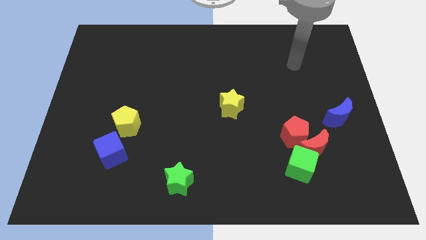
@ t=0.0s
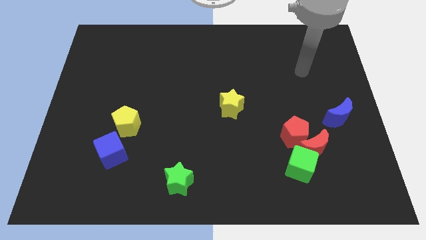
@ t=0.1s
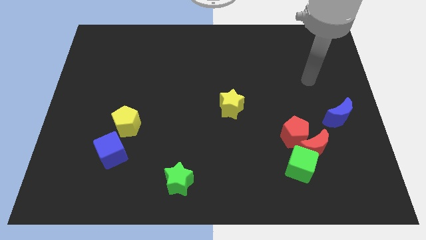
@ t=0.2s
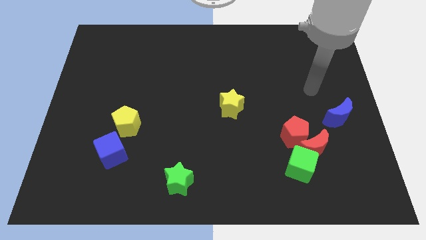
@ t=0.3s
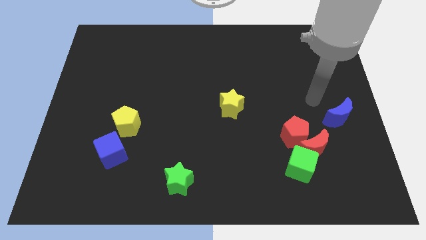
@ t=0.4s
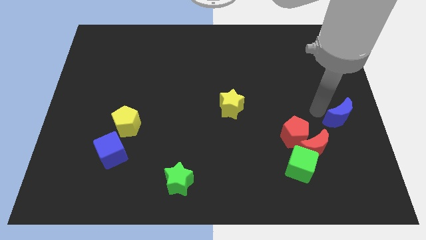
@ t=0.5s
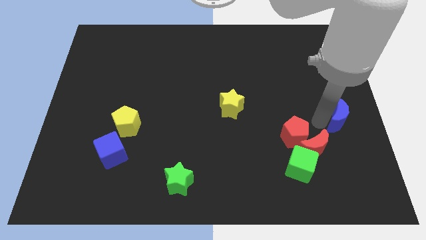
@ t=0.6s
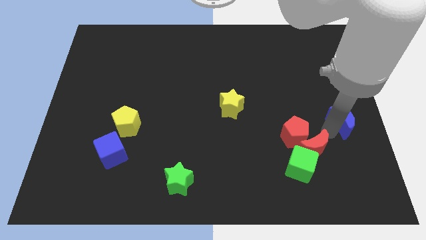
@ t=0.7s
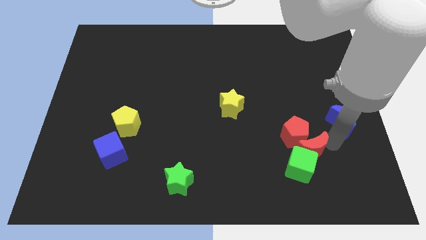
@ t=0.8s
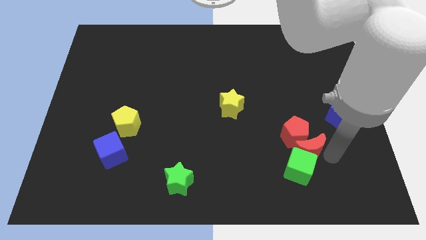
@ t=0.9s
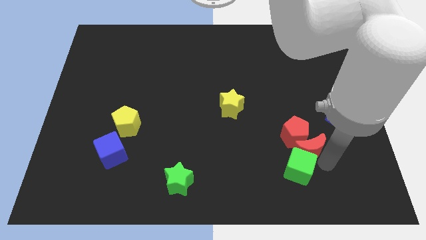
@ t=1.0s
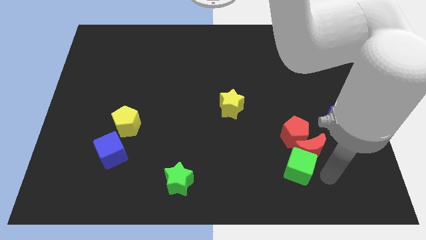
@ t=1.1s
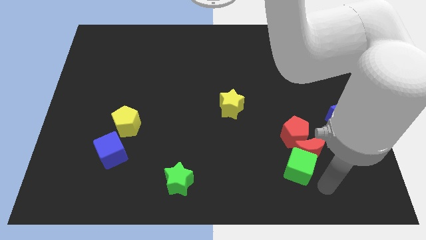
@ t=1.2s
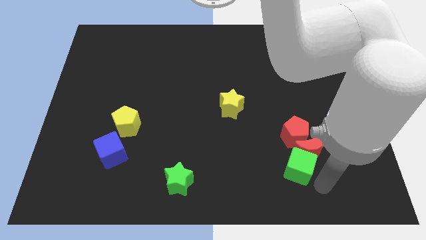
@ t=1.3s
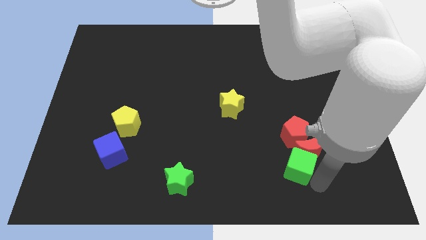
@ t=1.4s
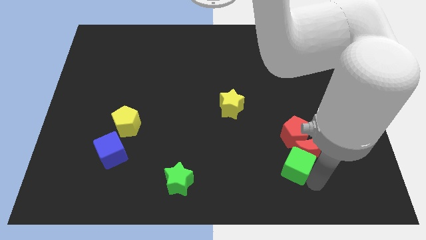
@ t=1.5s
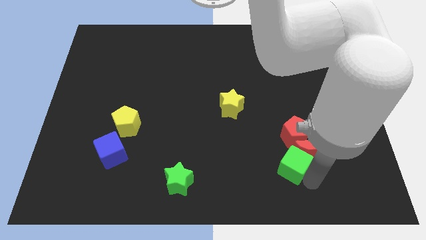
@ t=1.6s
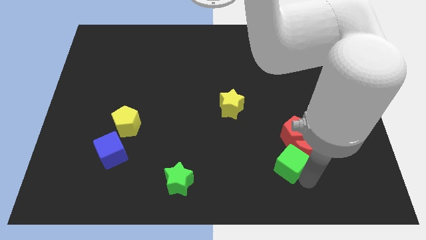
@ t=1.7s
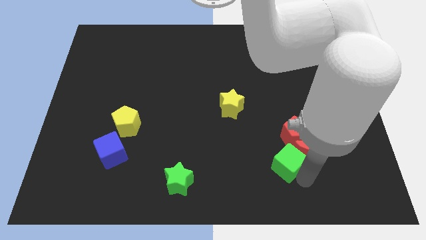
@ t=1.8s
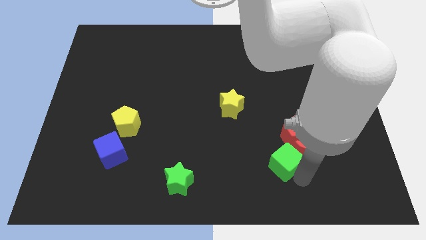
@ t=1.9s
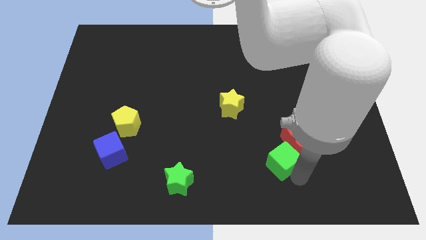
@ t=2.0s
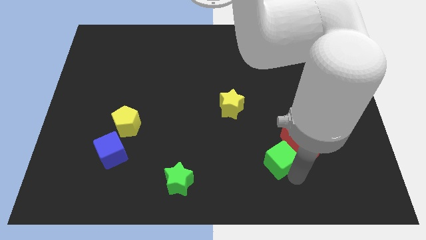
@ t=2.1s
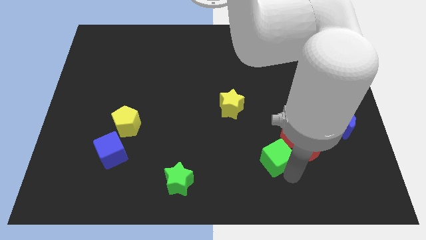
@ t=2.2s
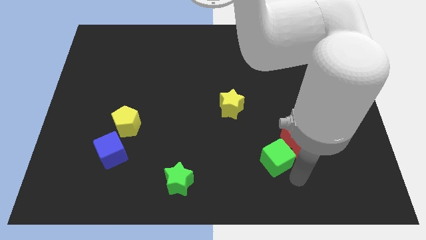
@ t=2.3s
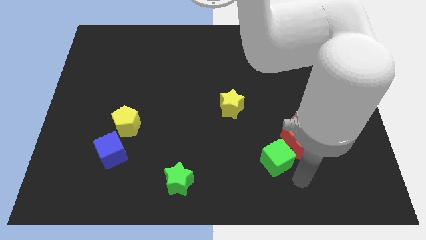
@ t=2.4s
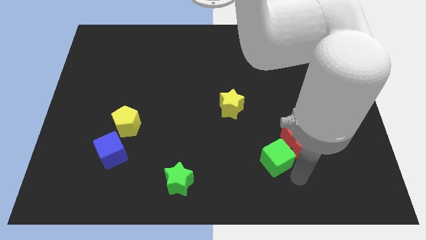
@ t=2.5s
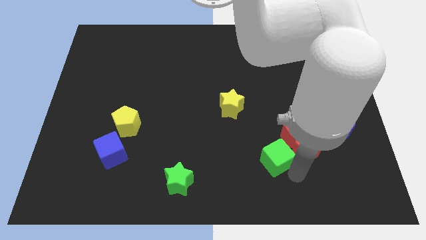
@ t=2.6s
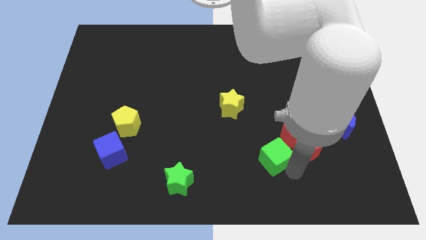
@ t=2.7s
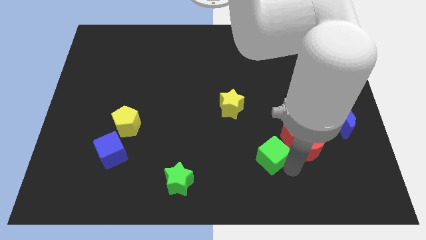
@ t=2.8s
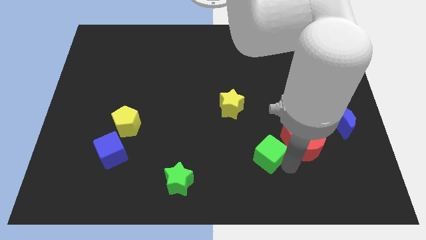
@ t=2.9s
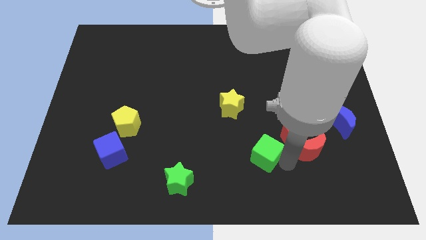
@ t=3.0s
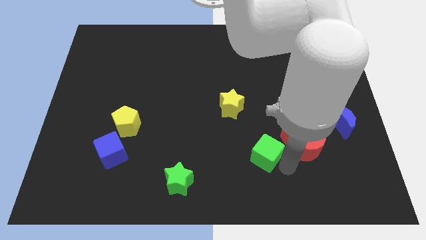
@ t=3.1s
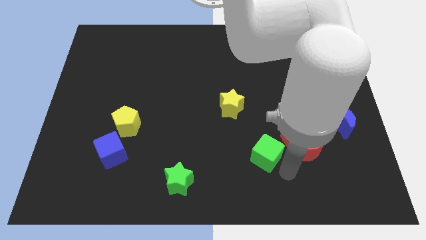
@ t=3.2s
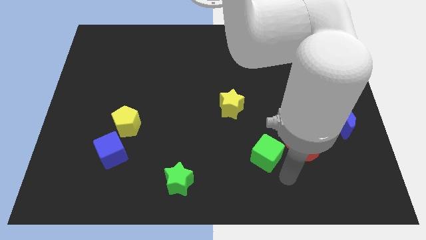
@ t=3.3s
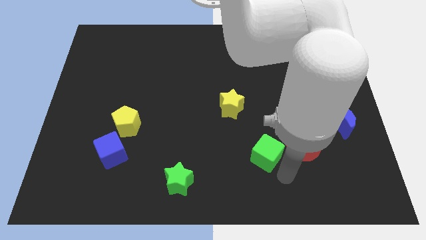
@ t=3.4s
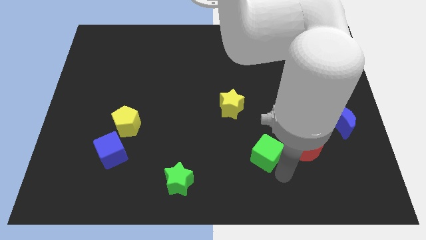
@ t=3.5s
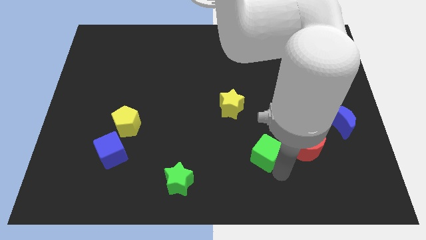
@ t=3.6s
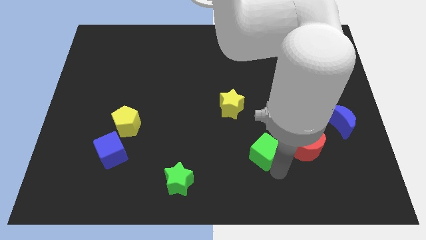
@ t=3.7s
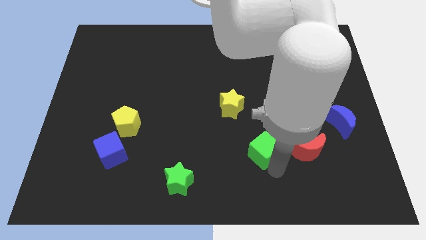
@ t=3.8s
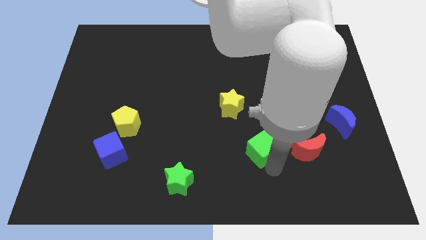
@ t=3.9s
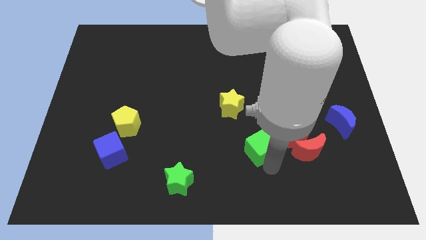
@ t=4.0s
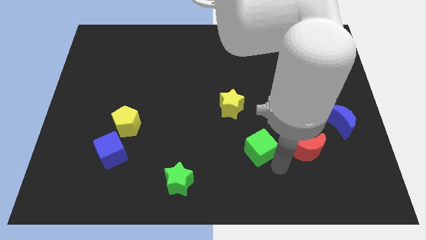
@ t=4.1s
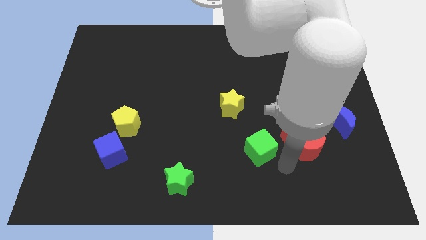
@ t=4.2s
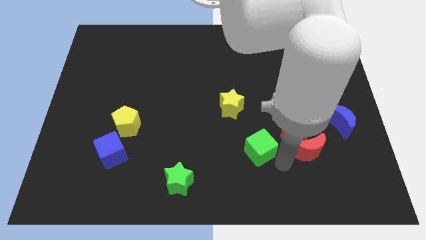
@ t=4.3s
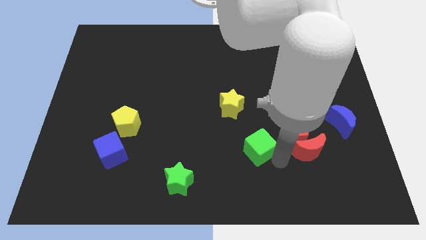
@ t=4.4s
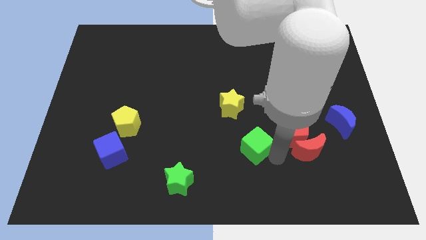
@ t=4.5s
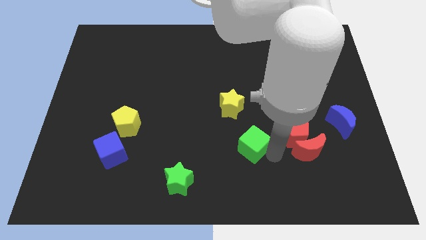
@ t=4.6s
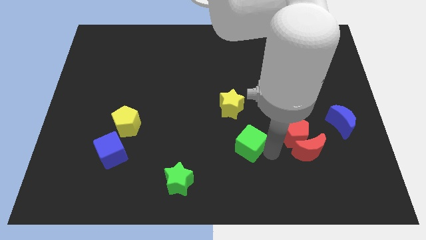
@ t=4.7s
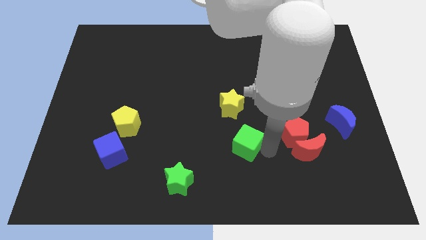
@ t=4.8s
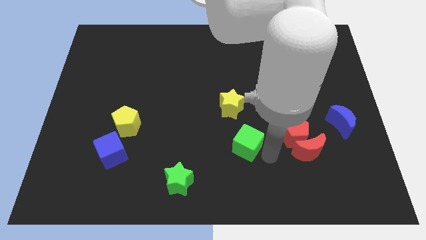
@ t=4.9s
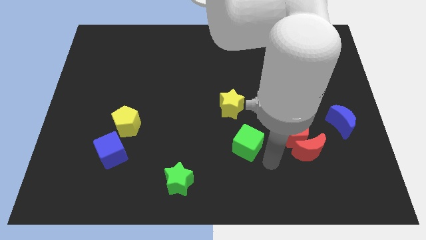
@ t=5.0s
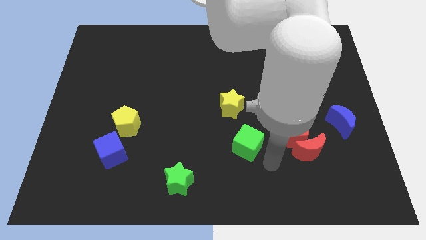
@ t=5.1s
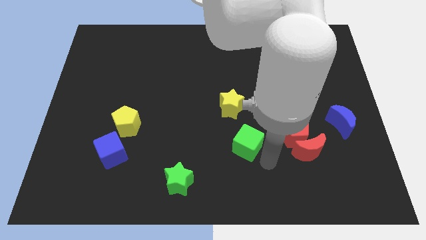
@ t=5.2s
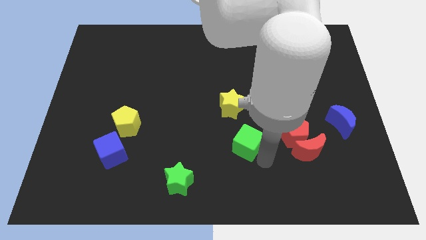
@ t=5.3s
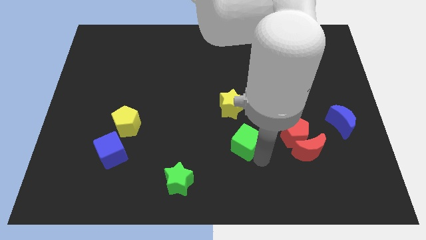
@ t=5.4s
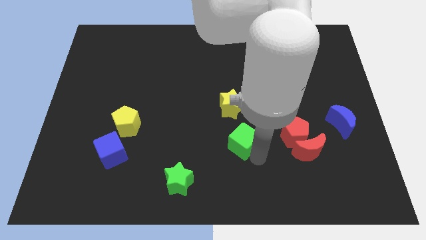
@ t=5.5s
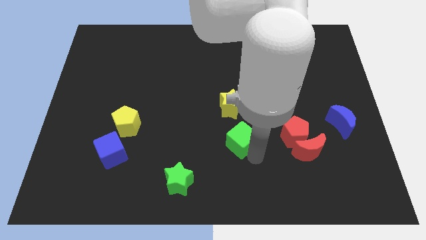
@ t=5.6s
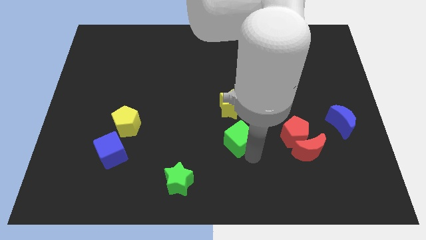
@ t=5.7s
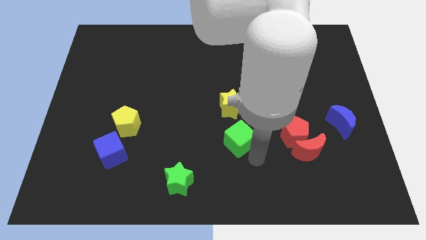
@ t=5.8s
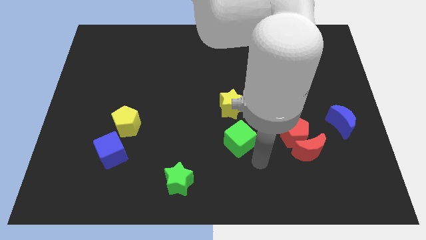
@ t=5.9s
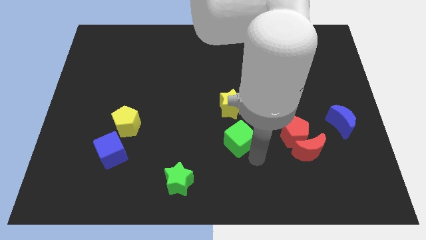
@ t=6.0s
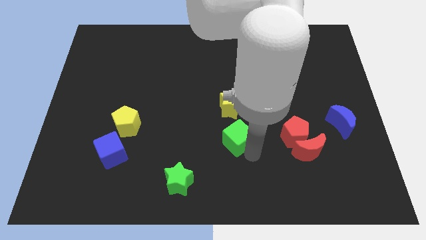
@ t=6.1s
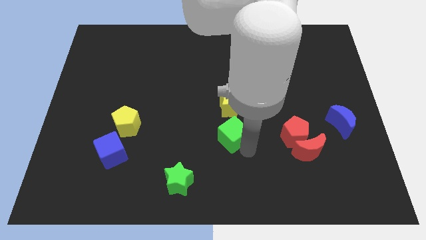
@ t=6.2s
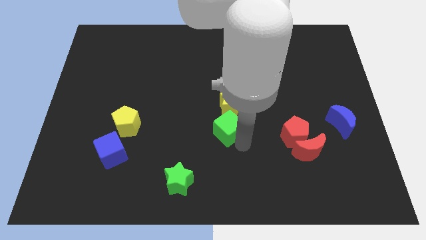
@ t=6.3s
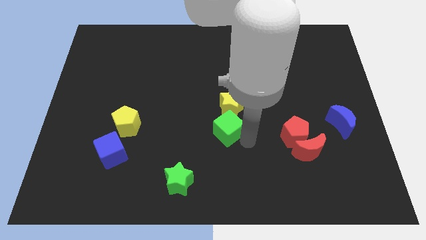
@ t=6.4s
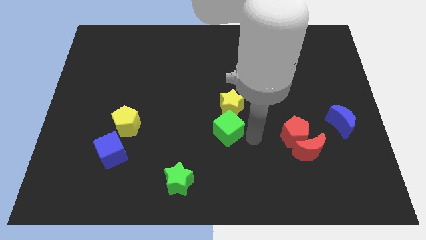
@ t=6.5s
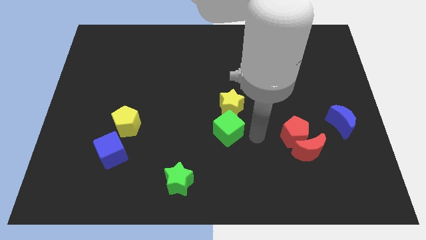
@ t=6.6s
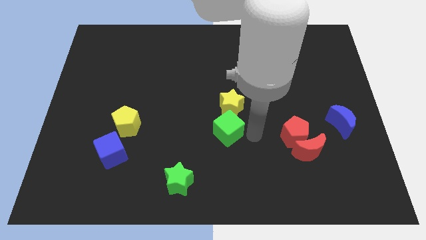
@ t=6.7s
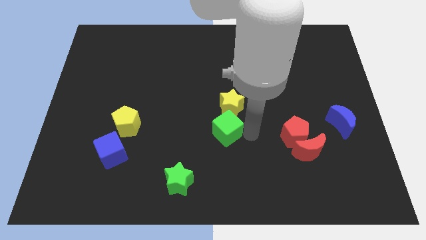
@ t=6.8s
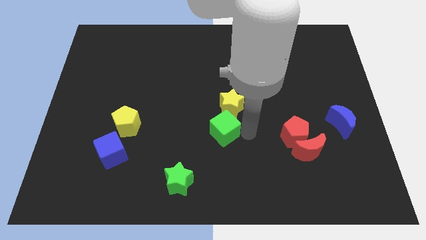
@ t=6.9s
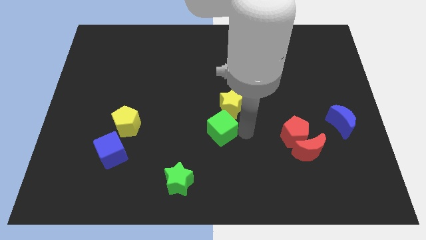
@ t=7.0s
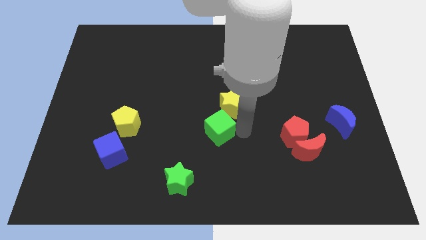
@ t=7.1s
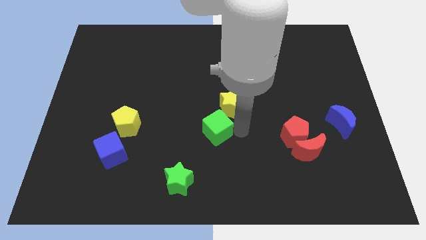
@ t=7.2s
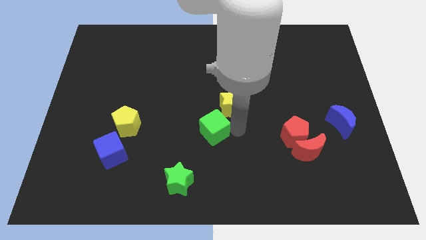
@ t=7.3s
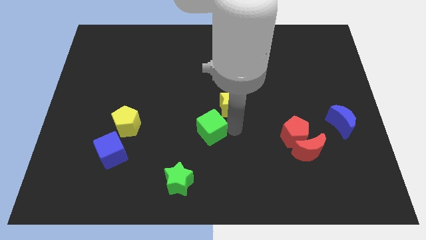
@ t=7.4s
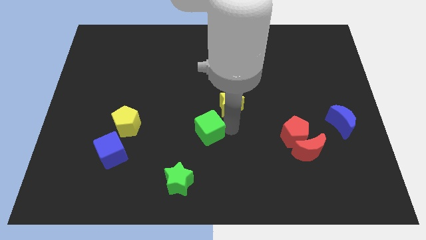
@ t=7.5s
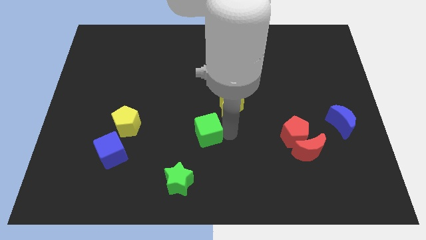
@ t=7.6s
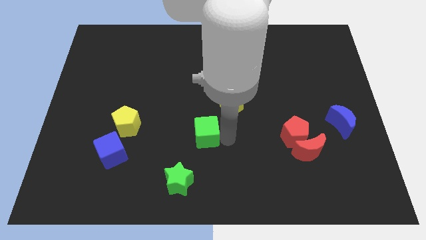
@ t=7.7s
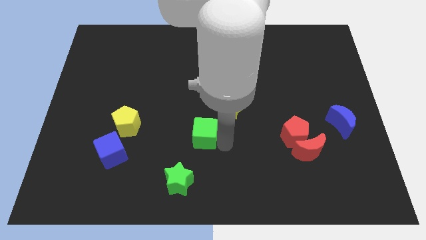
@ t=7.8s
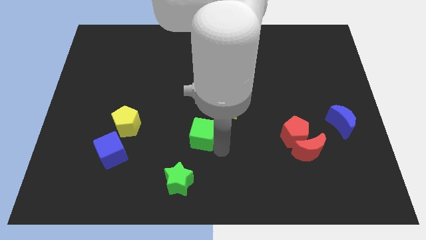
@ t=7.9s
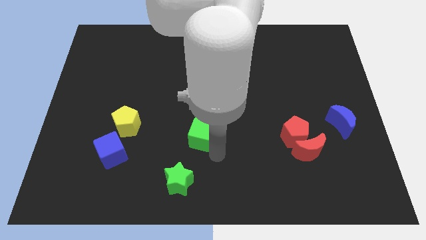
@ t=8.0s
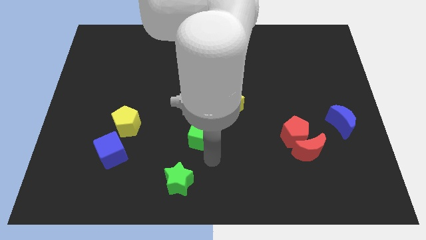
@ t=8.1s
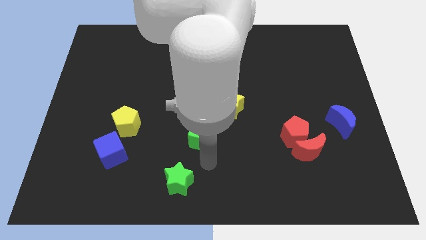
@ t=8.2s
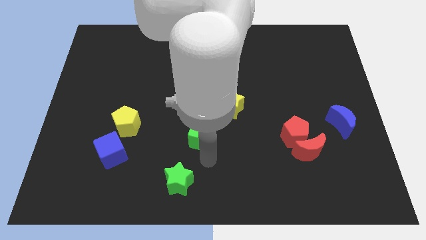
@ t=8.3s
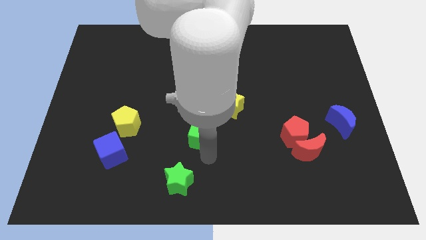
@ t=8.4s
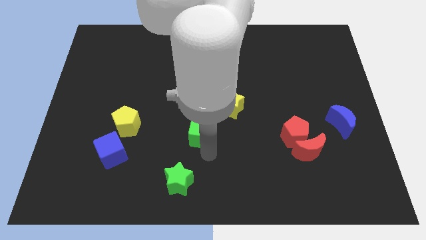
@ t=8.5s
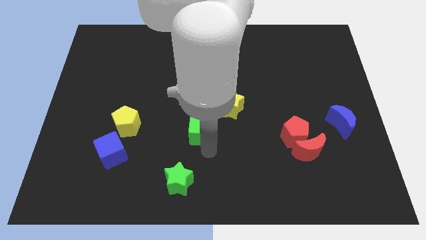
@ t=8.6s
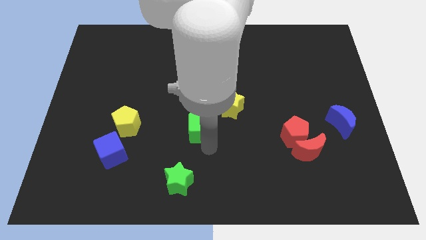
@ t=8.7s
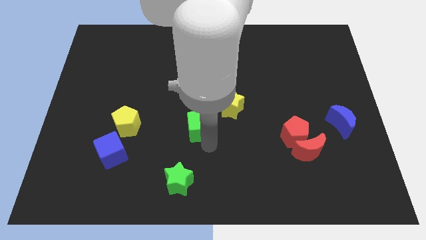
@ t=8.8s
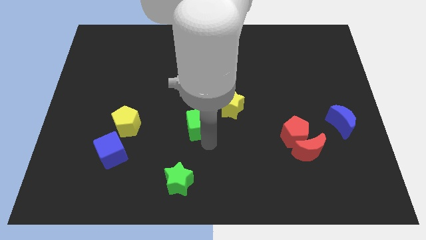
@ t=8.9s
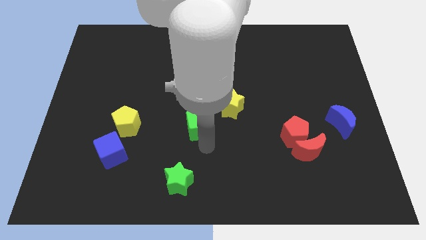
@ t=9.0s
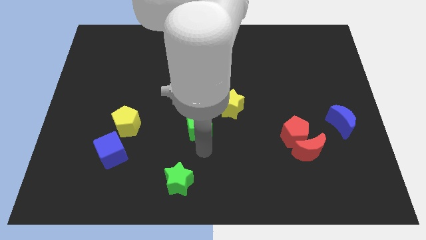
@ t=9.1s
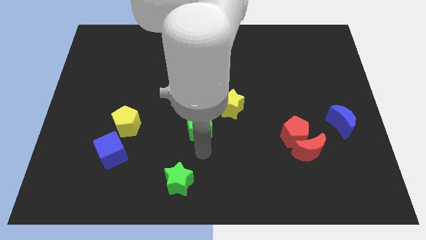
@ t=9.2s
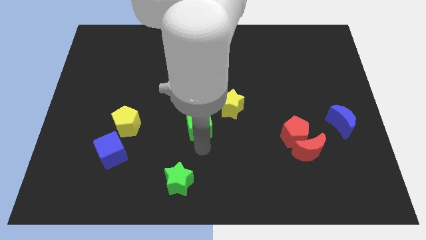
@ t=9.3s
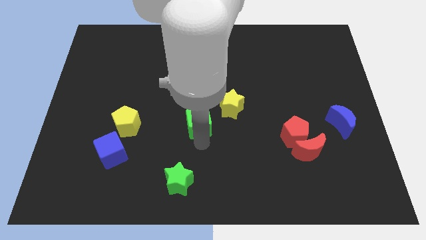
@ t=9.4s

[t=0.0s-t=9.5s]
slide the green cube up and to the left
